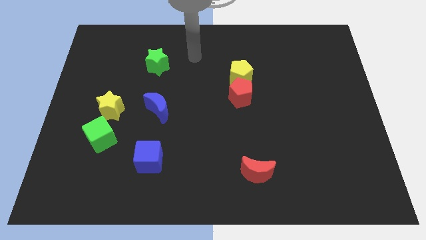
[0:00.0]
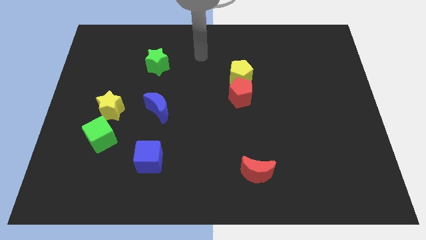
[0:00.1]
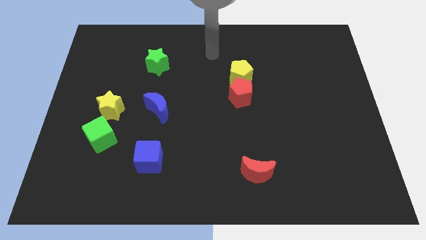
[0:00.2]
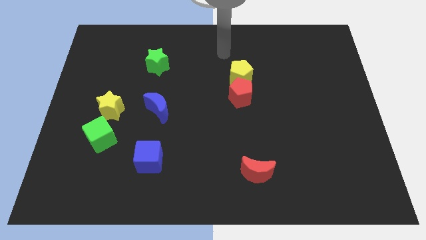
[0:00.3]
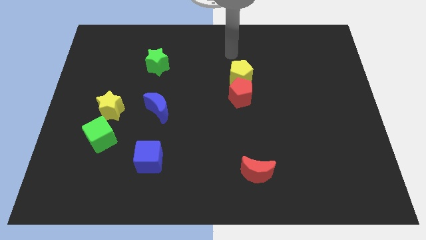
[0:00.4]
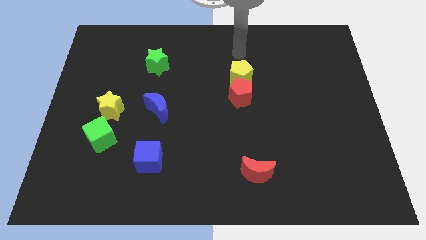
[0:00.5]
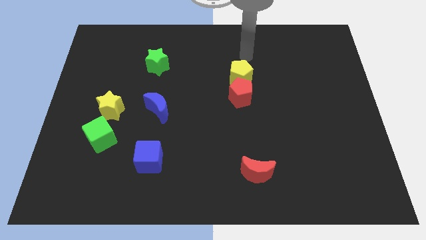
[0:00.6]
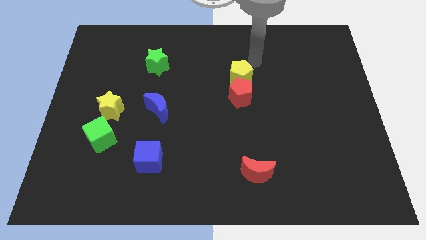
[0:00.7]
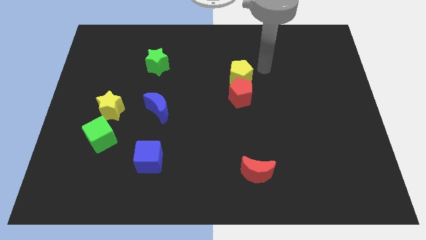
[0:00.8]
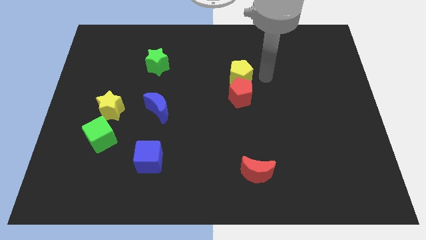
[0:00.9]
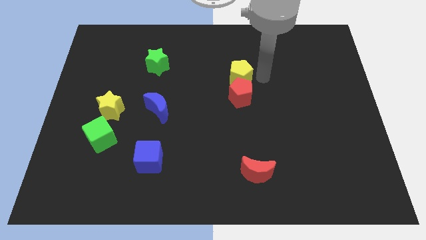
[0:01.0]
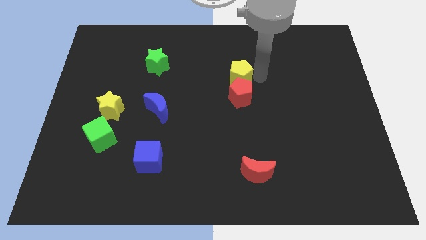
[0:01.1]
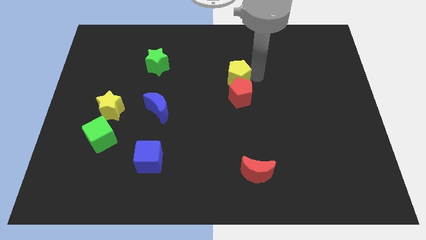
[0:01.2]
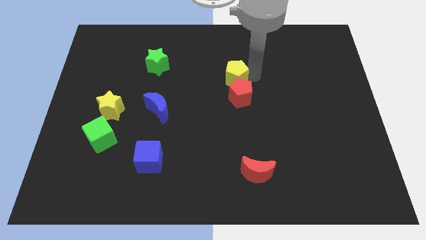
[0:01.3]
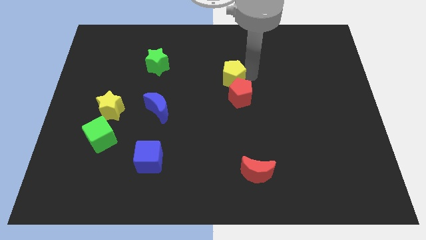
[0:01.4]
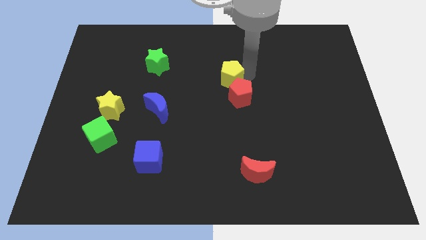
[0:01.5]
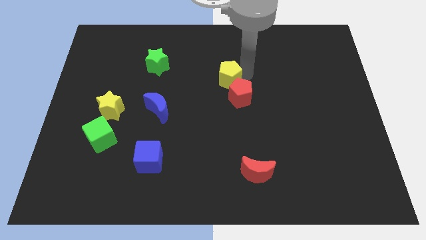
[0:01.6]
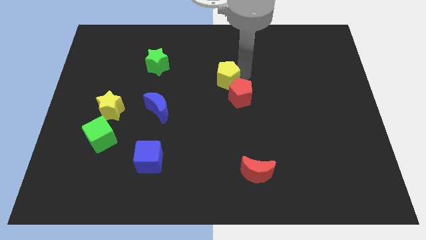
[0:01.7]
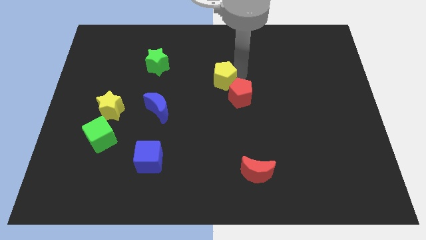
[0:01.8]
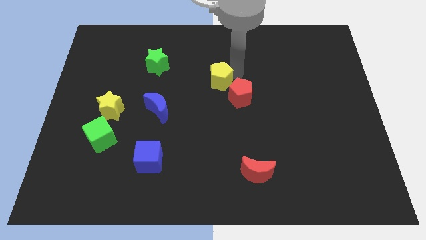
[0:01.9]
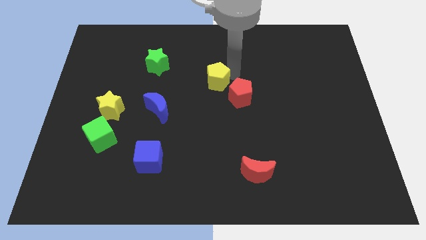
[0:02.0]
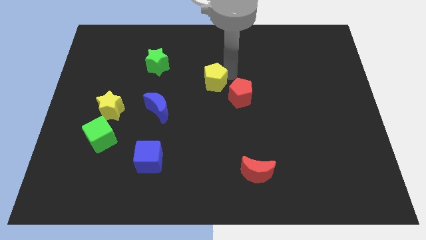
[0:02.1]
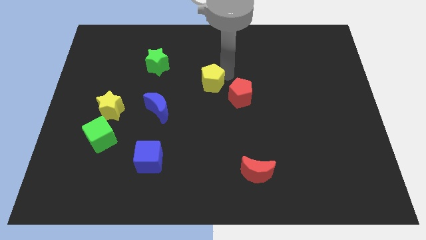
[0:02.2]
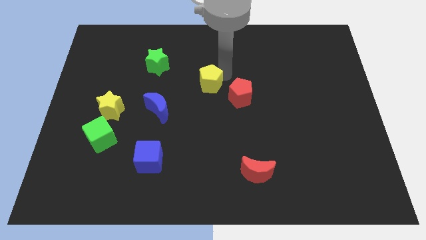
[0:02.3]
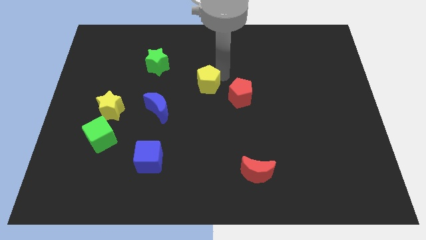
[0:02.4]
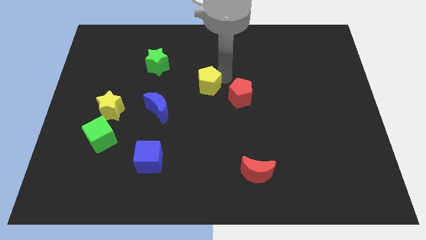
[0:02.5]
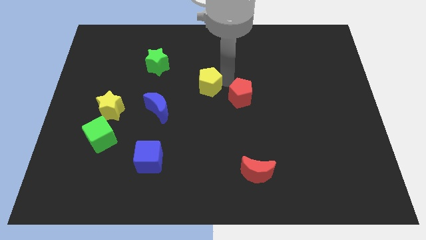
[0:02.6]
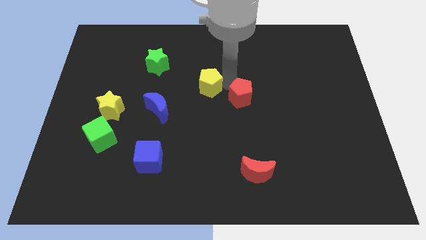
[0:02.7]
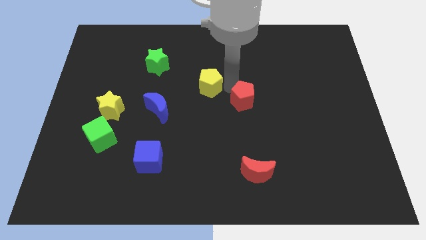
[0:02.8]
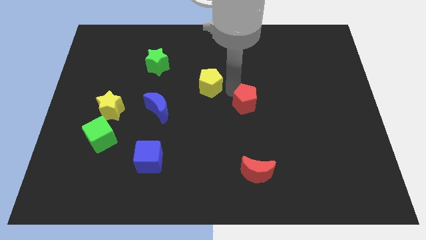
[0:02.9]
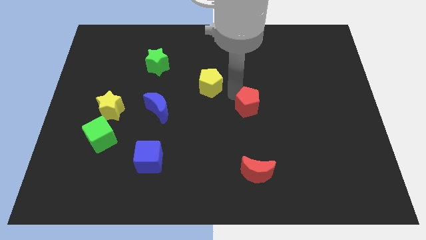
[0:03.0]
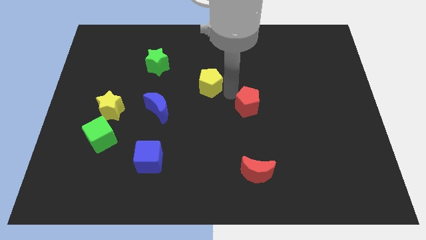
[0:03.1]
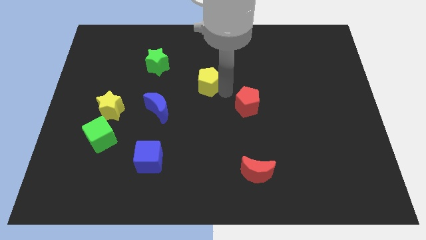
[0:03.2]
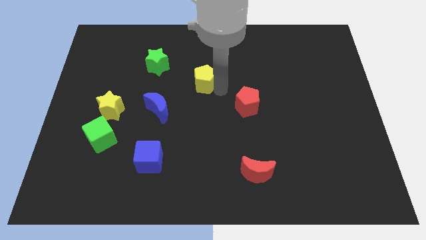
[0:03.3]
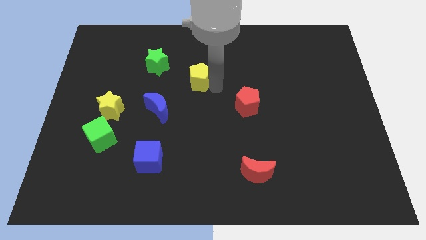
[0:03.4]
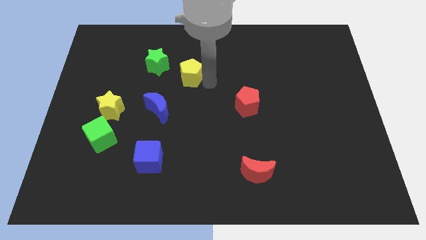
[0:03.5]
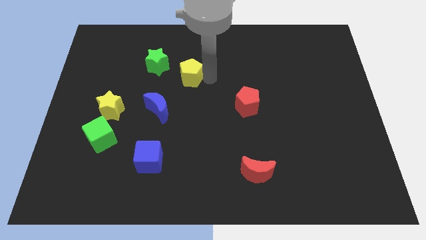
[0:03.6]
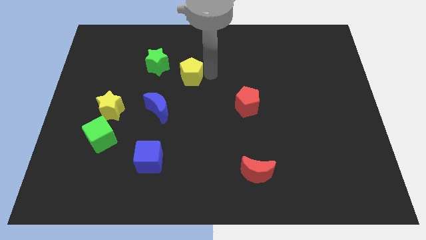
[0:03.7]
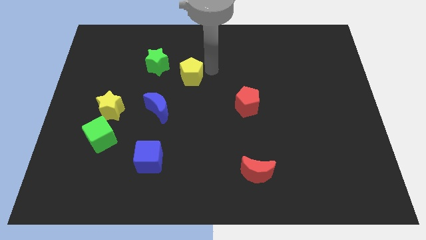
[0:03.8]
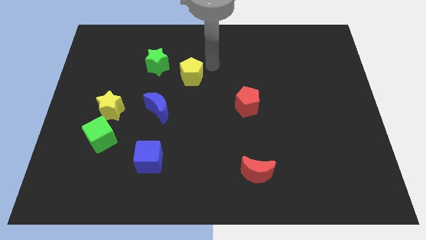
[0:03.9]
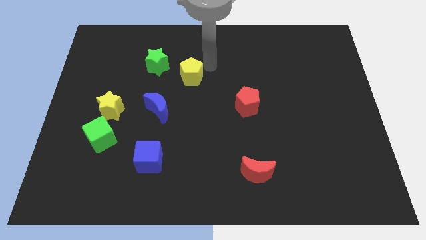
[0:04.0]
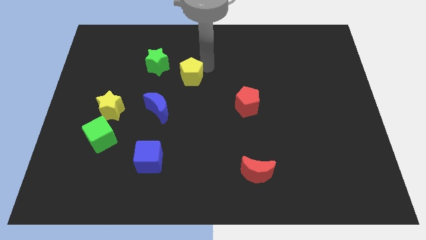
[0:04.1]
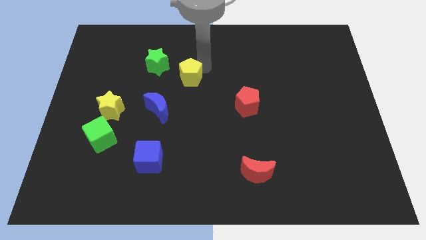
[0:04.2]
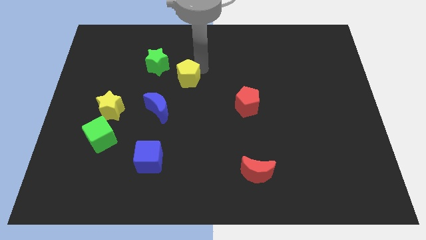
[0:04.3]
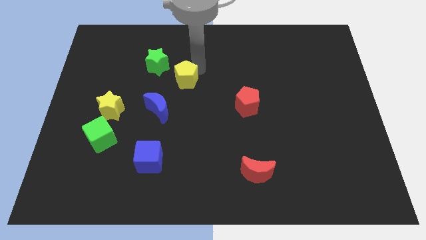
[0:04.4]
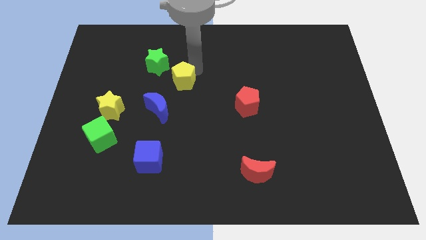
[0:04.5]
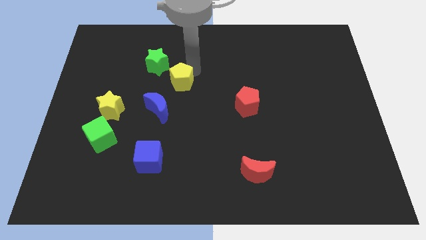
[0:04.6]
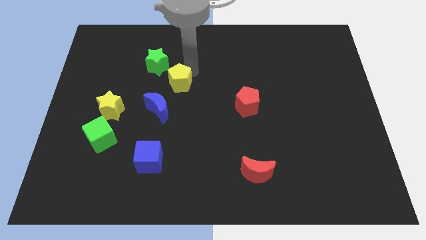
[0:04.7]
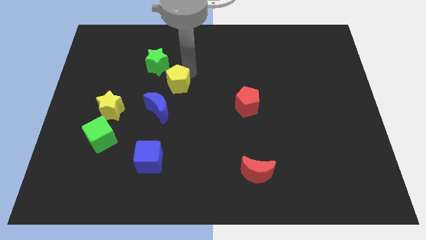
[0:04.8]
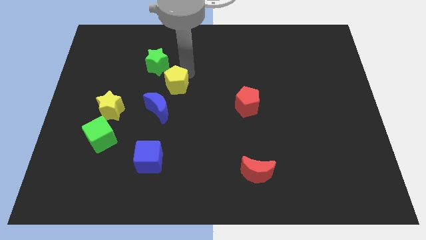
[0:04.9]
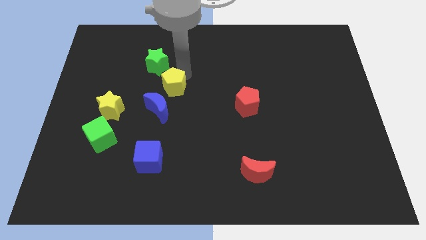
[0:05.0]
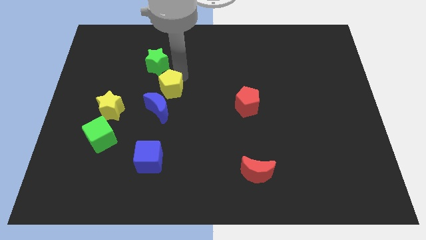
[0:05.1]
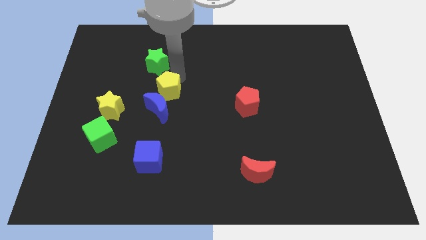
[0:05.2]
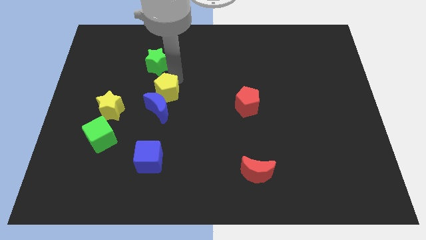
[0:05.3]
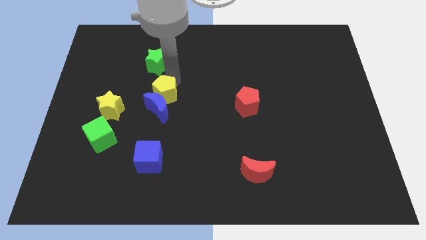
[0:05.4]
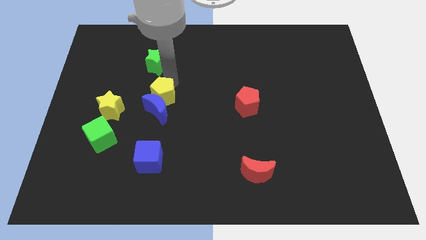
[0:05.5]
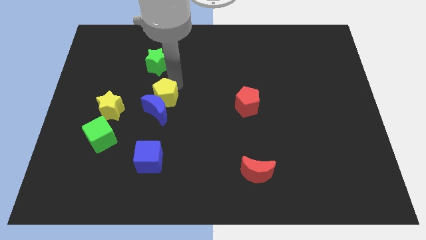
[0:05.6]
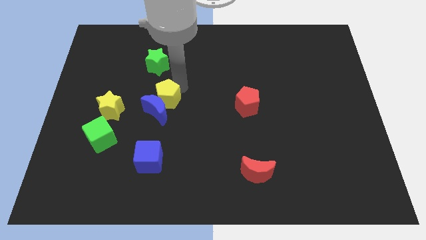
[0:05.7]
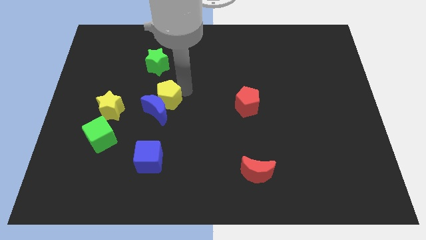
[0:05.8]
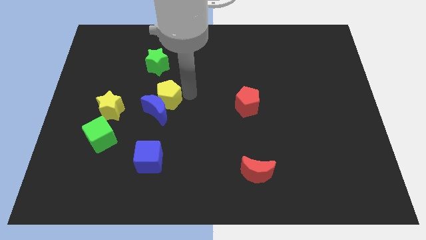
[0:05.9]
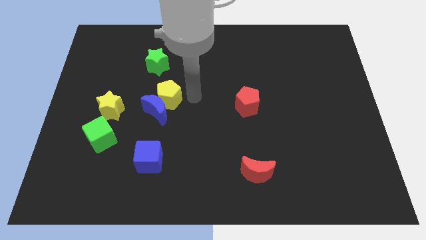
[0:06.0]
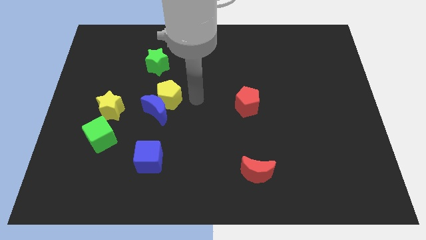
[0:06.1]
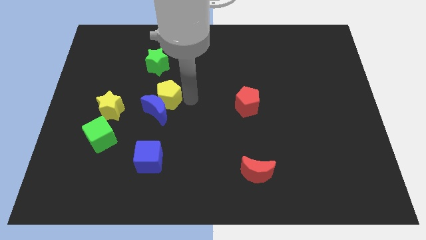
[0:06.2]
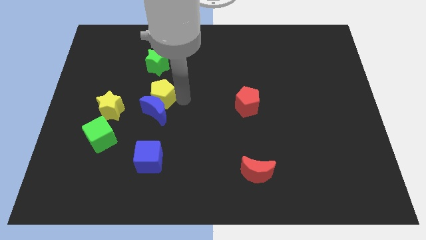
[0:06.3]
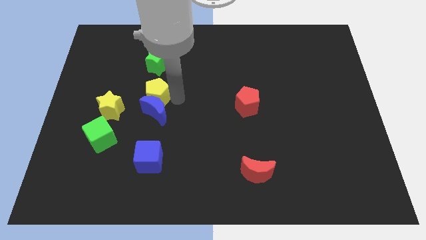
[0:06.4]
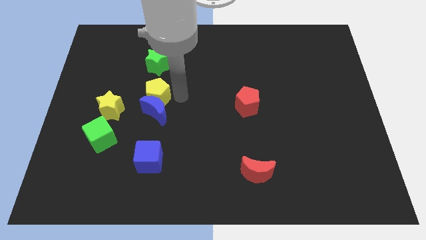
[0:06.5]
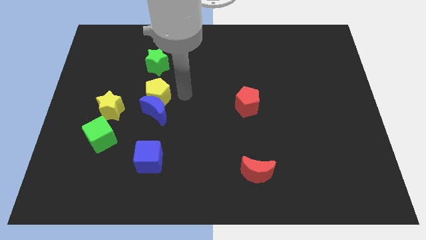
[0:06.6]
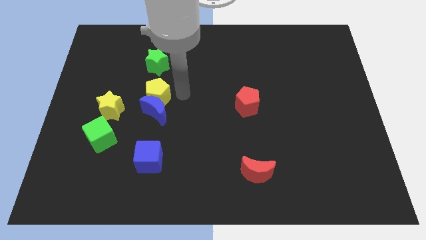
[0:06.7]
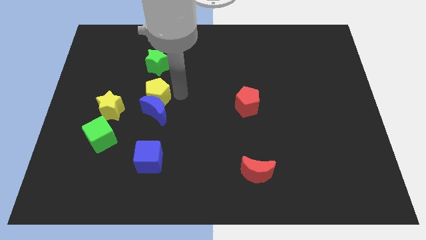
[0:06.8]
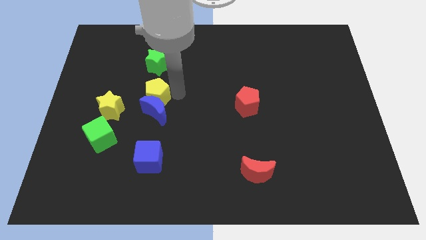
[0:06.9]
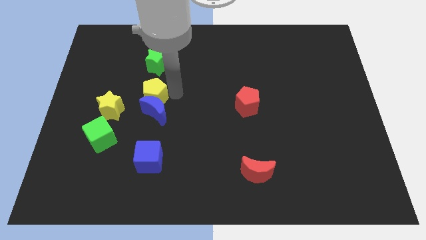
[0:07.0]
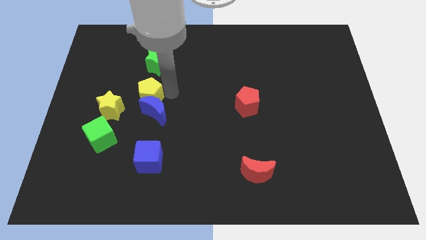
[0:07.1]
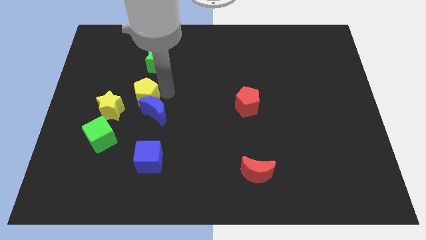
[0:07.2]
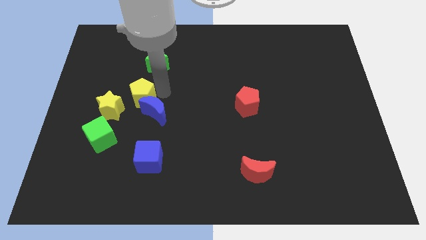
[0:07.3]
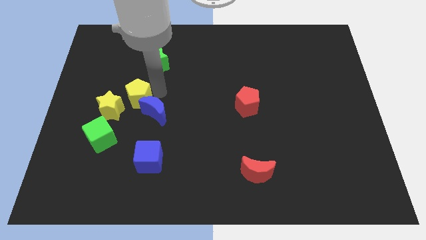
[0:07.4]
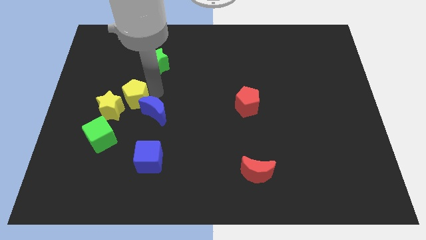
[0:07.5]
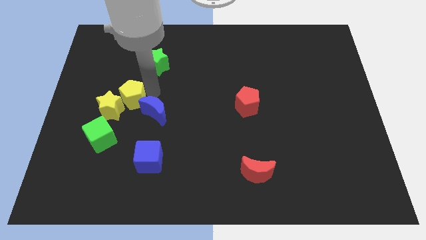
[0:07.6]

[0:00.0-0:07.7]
move the yellow pentagon to the yellow star

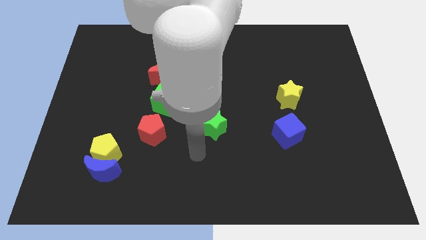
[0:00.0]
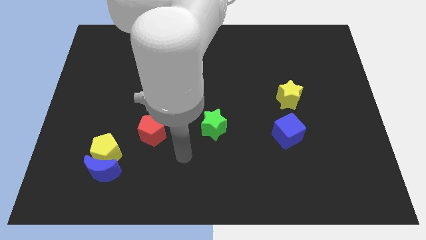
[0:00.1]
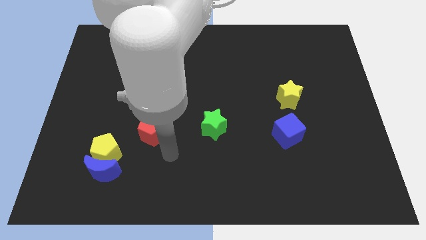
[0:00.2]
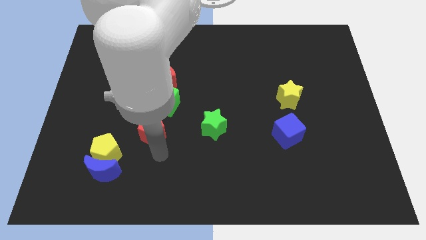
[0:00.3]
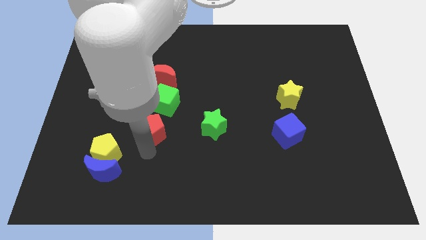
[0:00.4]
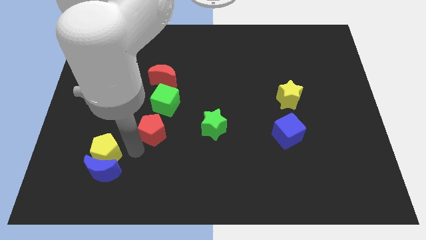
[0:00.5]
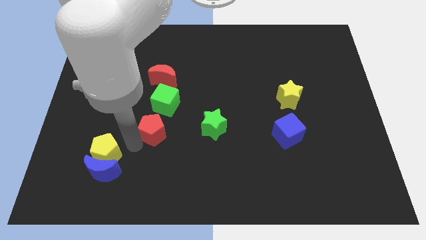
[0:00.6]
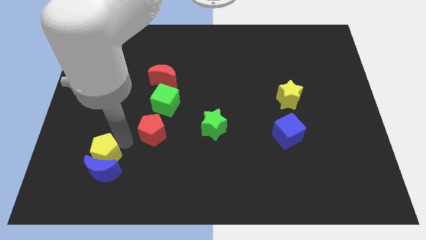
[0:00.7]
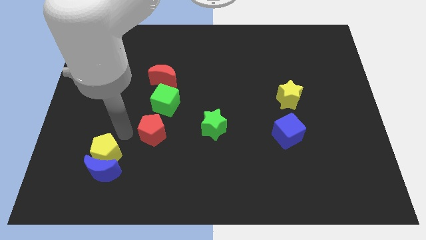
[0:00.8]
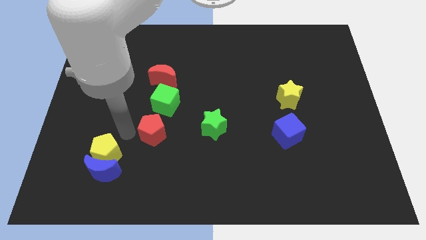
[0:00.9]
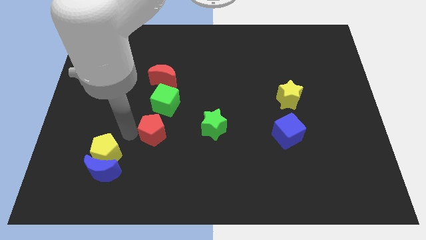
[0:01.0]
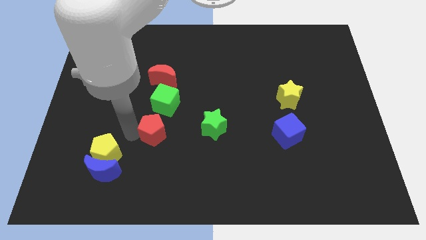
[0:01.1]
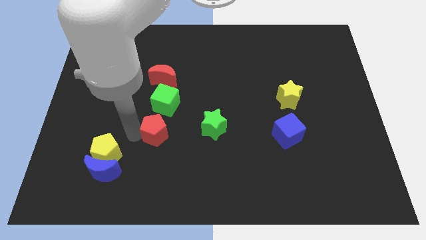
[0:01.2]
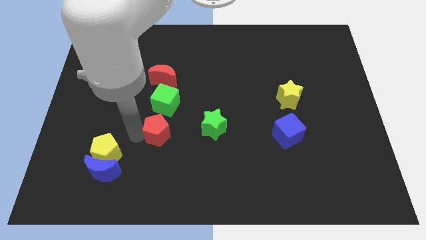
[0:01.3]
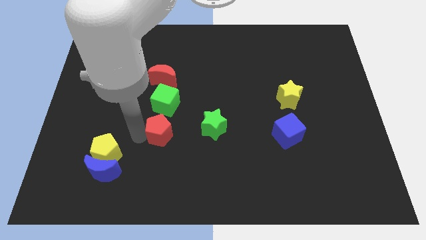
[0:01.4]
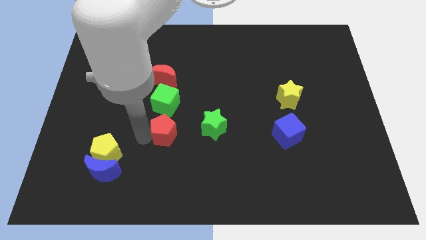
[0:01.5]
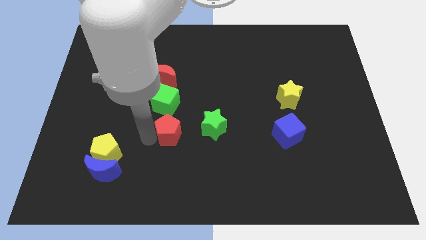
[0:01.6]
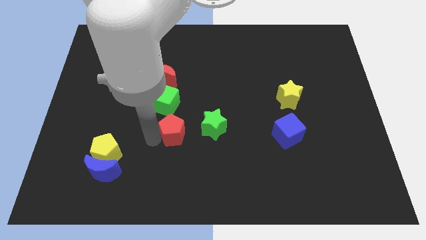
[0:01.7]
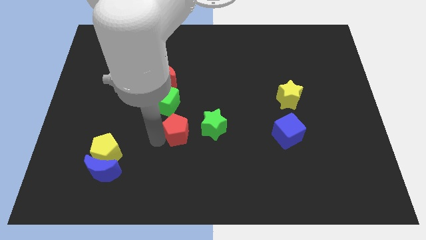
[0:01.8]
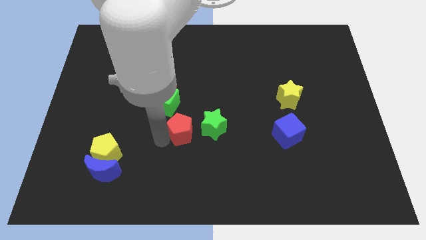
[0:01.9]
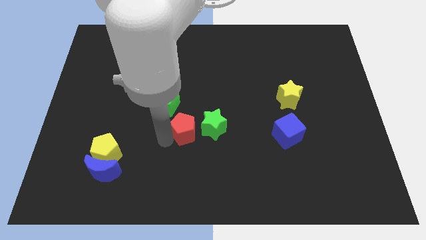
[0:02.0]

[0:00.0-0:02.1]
move the red pentagon towards the green star
